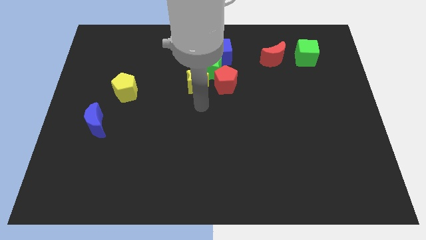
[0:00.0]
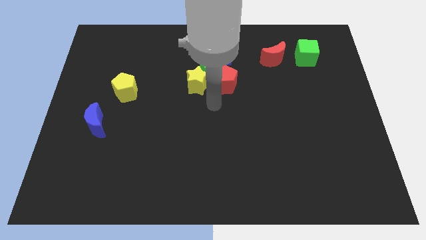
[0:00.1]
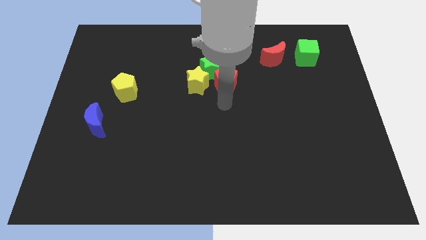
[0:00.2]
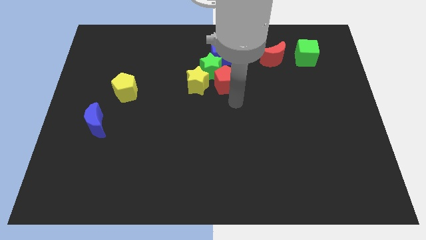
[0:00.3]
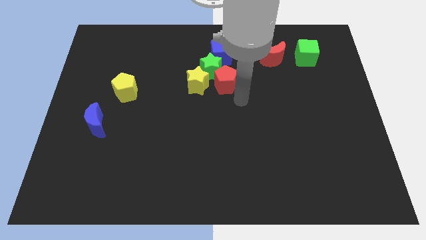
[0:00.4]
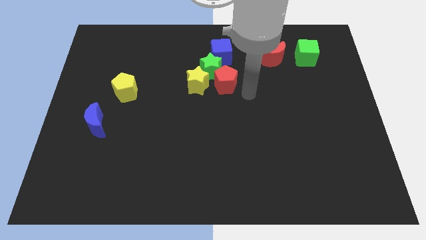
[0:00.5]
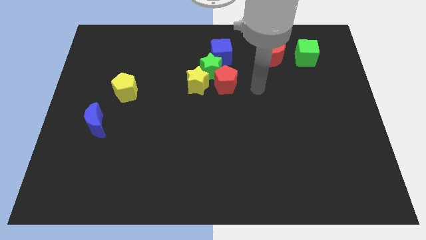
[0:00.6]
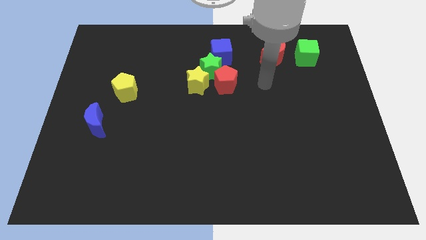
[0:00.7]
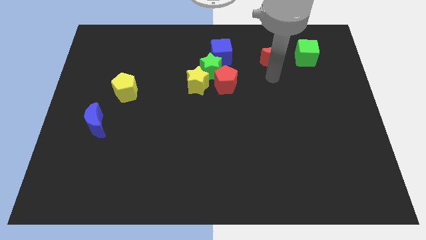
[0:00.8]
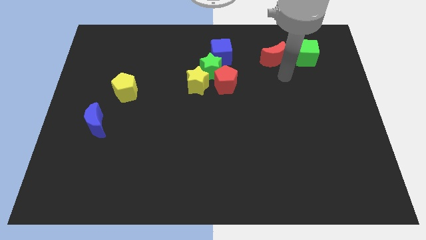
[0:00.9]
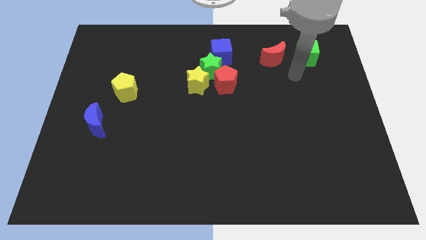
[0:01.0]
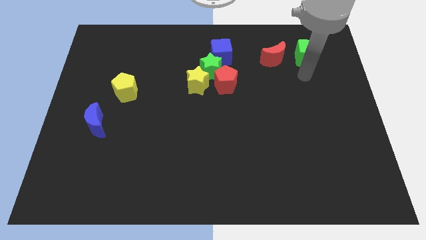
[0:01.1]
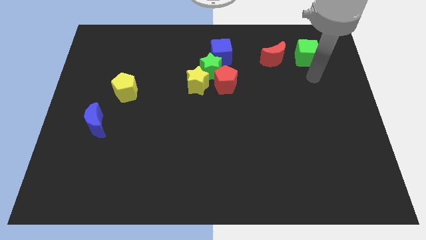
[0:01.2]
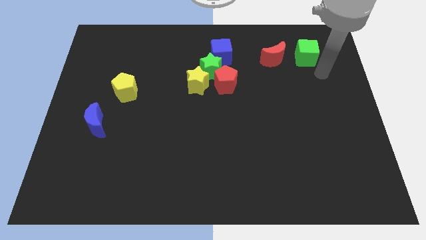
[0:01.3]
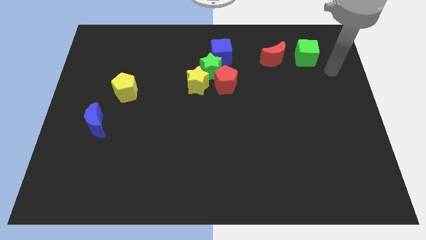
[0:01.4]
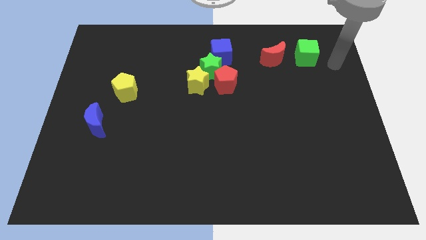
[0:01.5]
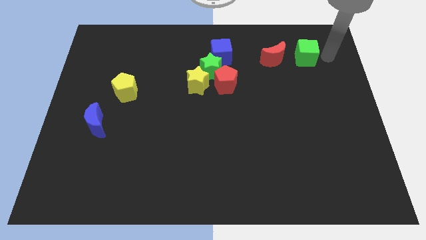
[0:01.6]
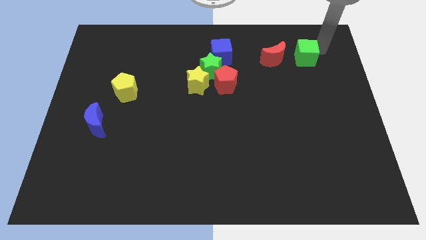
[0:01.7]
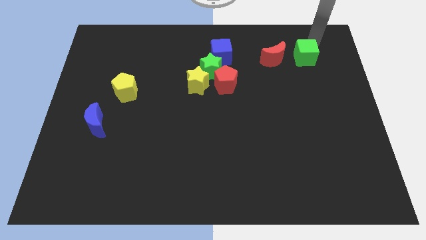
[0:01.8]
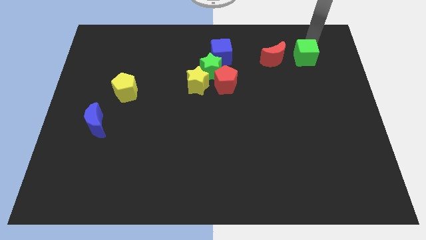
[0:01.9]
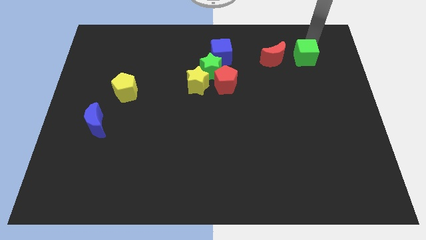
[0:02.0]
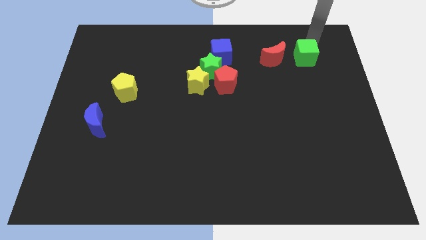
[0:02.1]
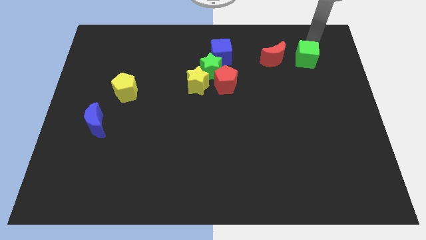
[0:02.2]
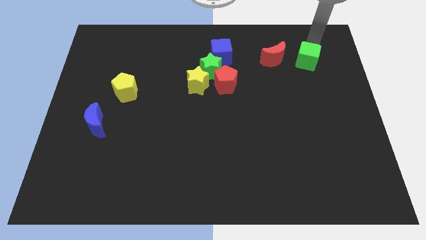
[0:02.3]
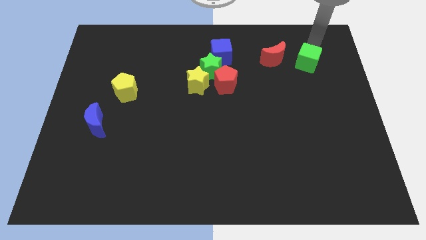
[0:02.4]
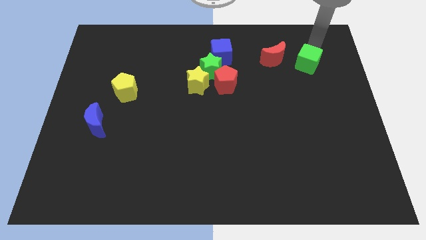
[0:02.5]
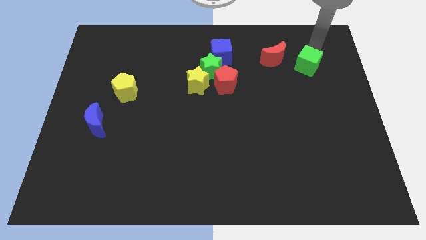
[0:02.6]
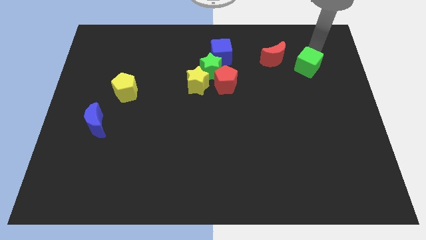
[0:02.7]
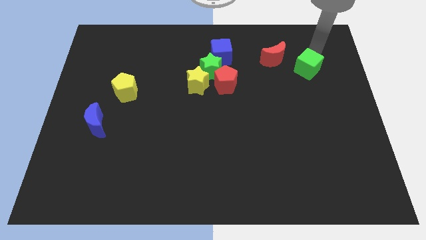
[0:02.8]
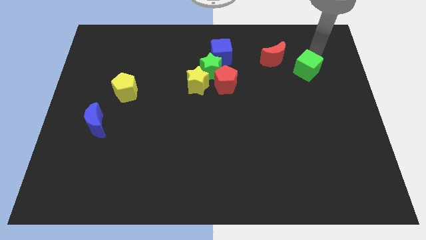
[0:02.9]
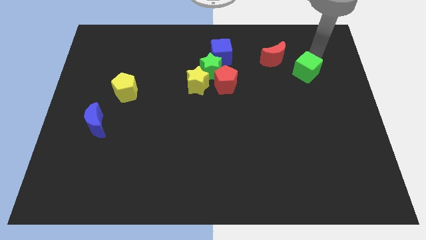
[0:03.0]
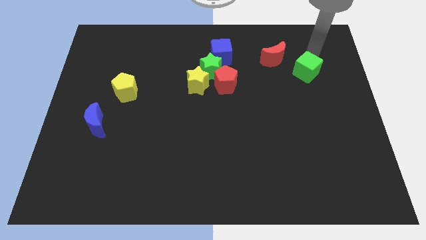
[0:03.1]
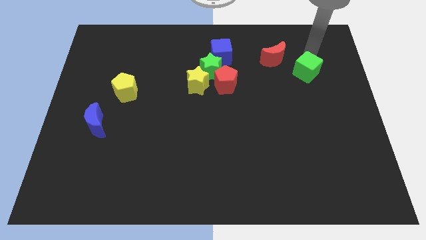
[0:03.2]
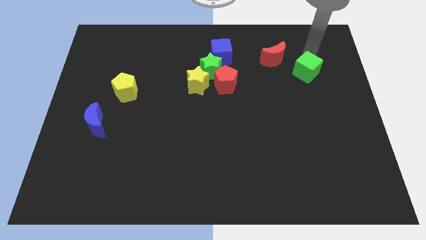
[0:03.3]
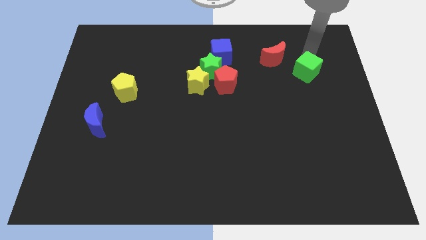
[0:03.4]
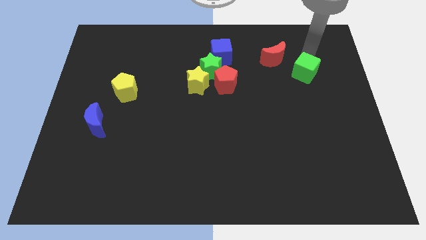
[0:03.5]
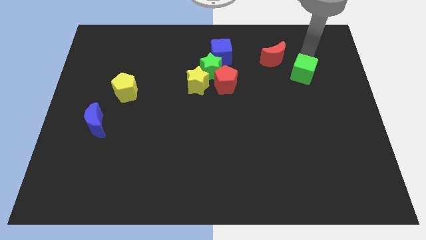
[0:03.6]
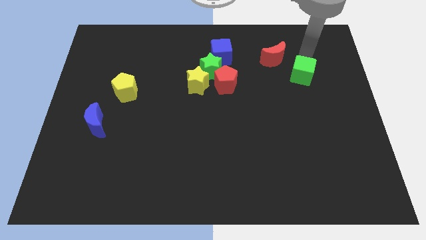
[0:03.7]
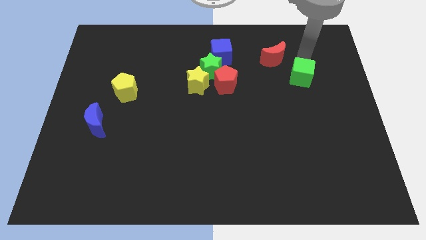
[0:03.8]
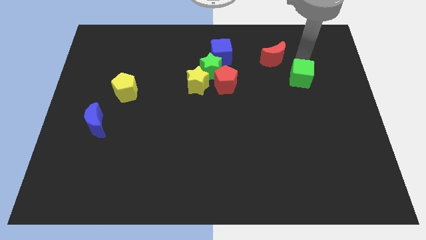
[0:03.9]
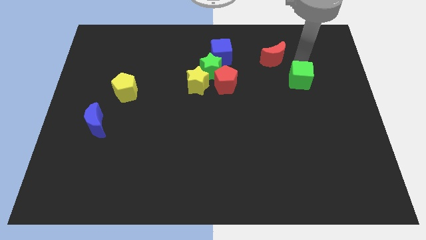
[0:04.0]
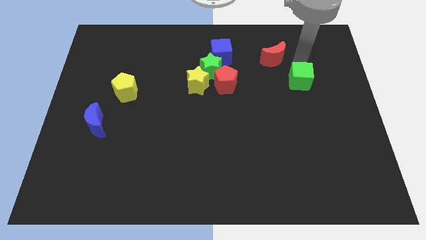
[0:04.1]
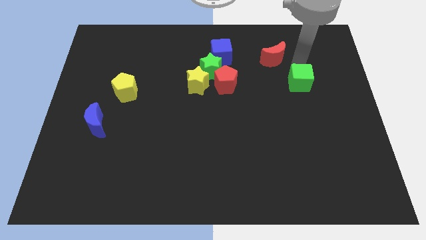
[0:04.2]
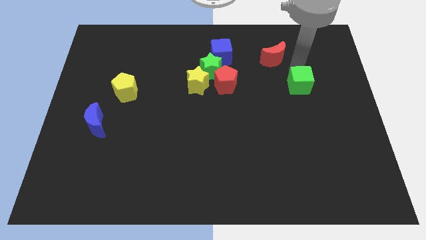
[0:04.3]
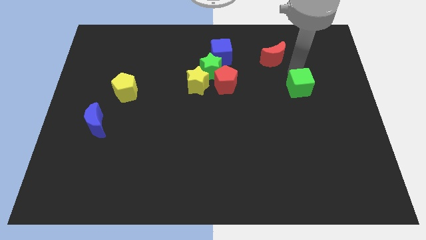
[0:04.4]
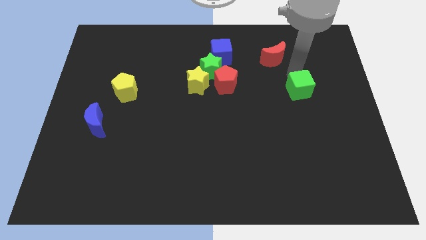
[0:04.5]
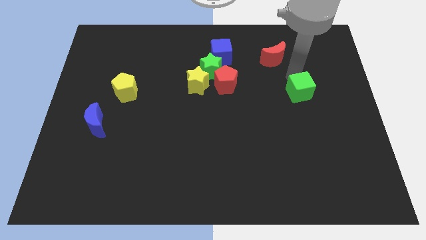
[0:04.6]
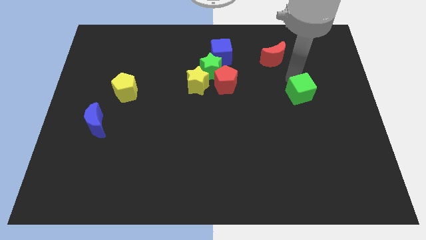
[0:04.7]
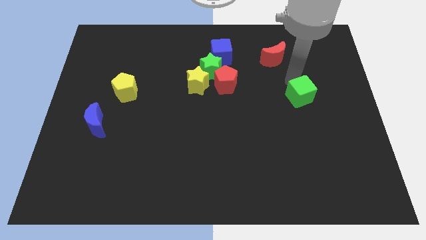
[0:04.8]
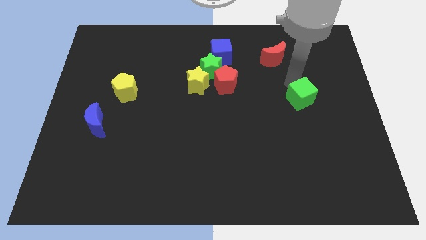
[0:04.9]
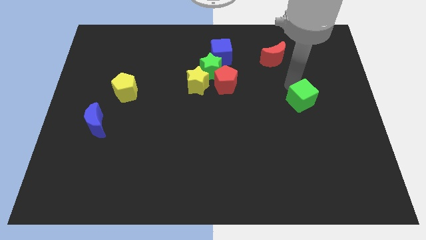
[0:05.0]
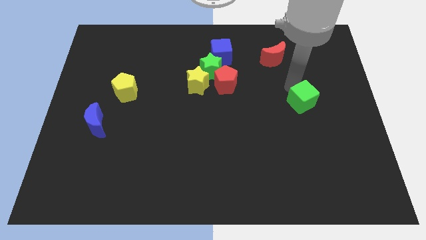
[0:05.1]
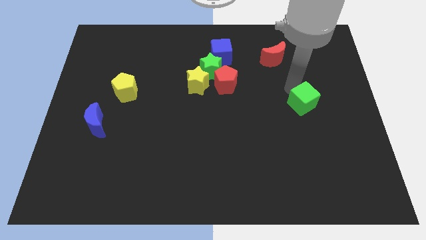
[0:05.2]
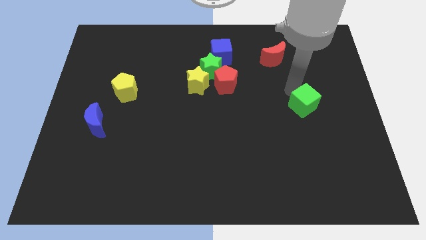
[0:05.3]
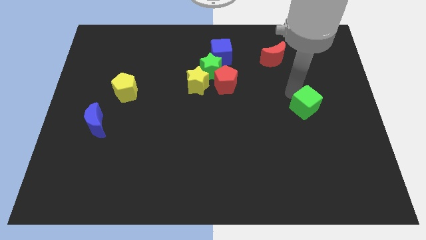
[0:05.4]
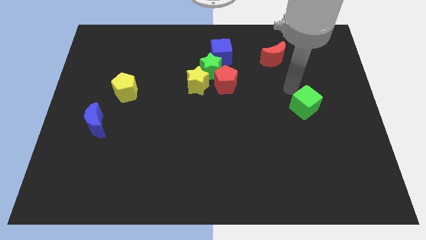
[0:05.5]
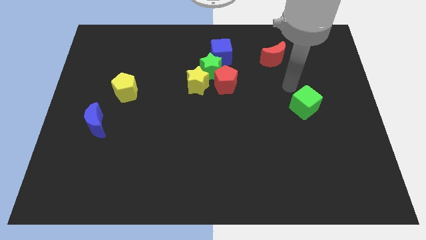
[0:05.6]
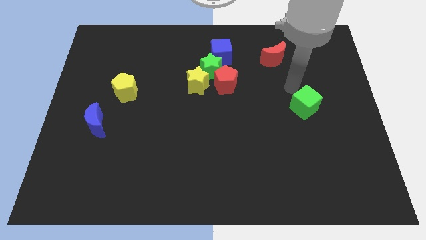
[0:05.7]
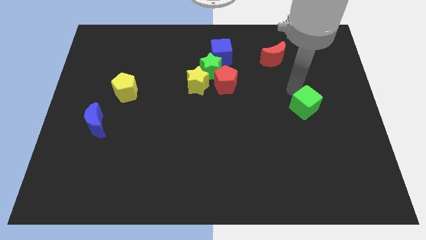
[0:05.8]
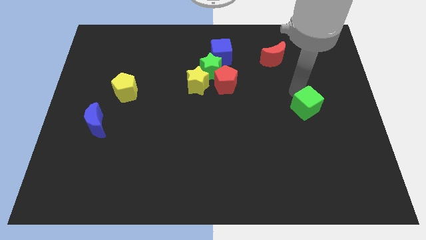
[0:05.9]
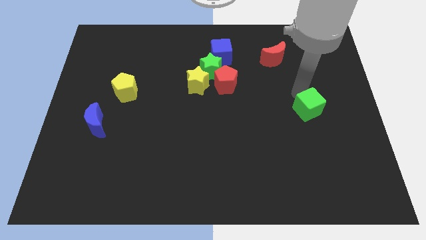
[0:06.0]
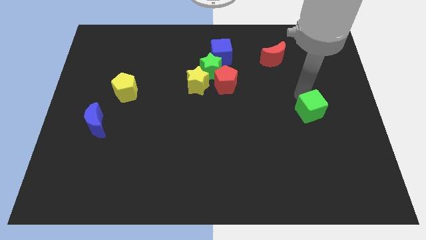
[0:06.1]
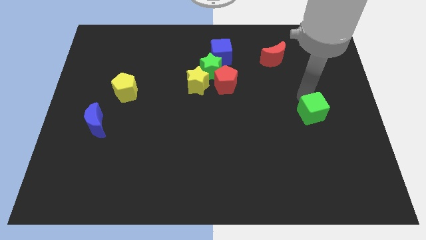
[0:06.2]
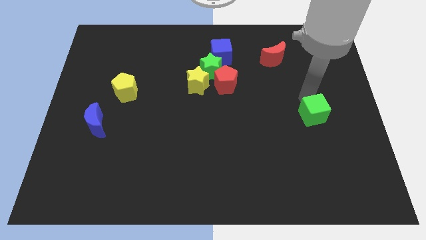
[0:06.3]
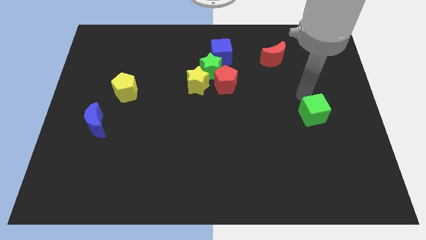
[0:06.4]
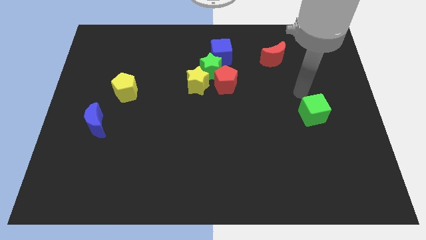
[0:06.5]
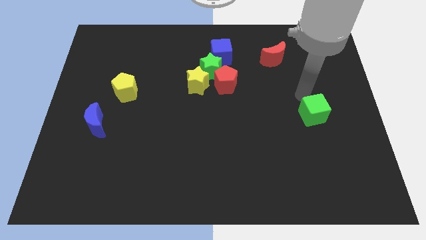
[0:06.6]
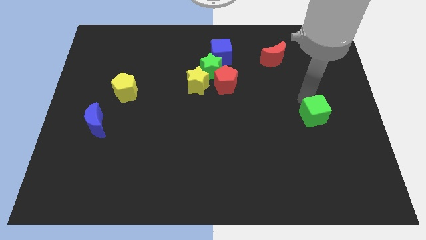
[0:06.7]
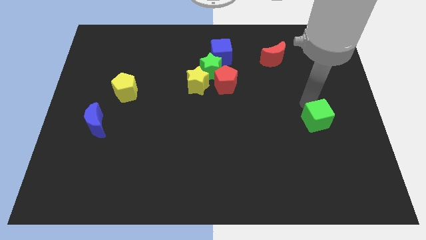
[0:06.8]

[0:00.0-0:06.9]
move the green cube downwards

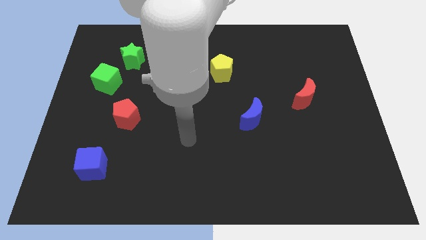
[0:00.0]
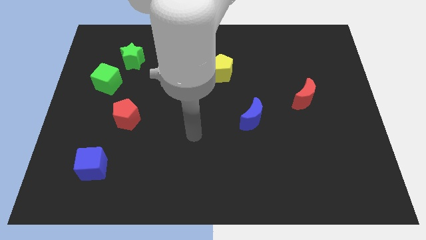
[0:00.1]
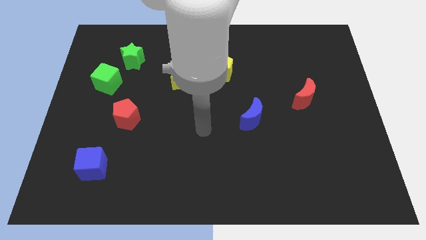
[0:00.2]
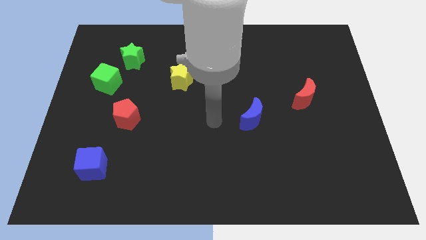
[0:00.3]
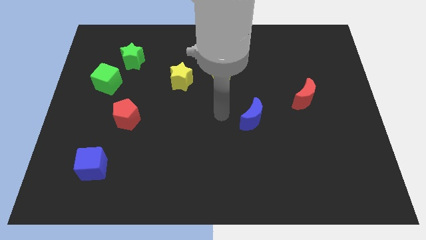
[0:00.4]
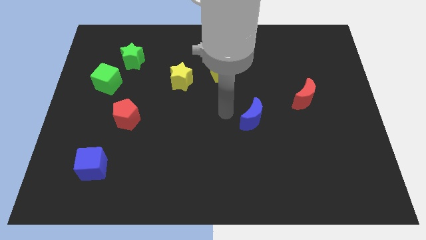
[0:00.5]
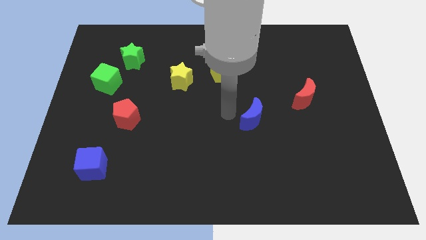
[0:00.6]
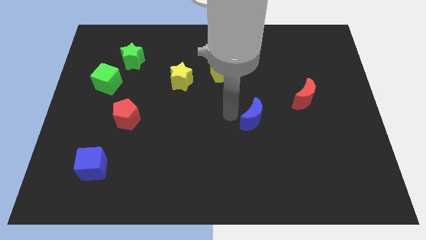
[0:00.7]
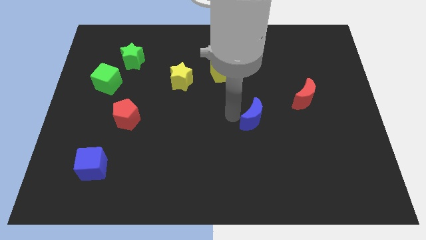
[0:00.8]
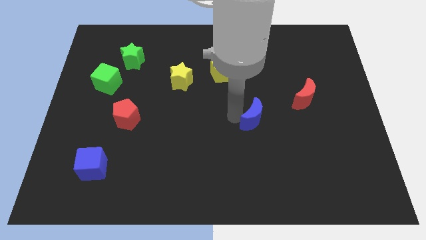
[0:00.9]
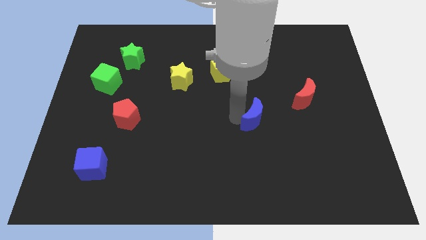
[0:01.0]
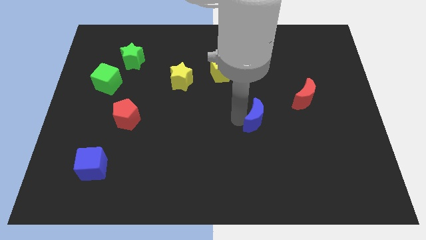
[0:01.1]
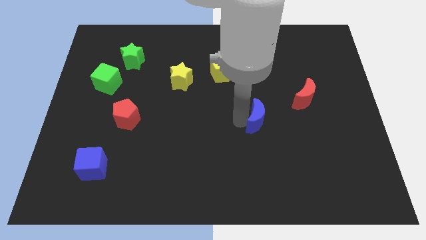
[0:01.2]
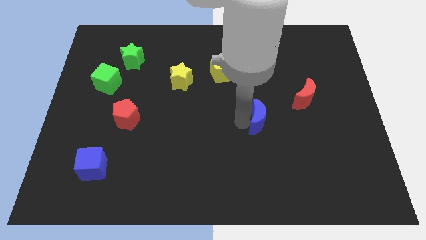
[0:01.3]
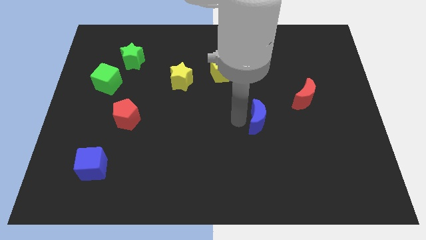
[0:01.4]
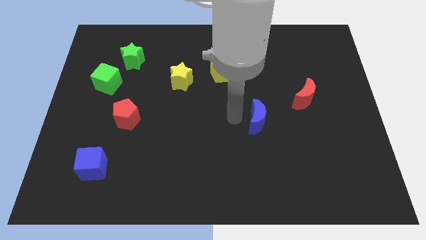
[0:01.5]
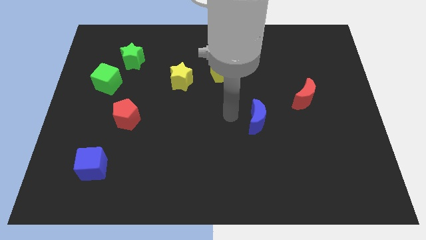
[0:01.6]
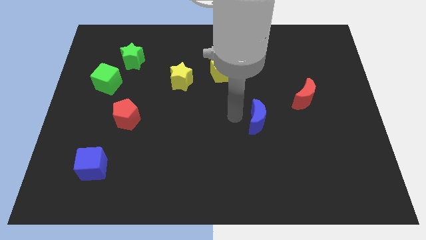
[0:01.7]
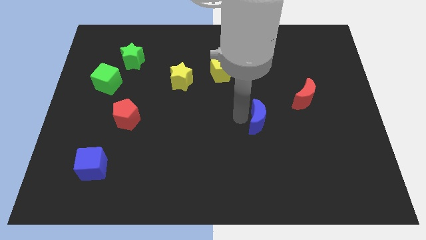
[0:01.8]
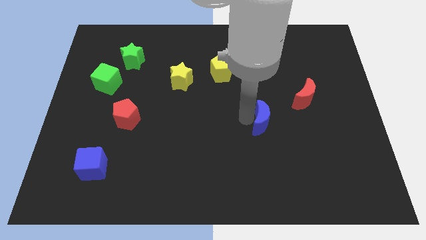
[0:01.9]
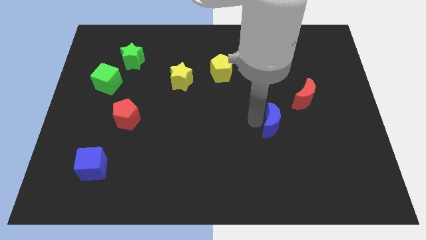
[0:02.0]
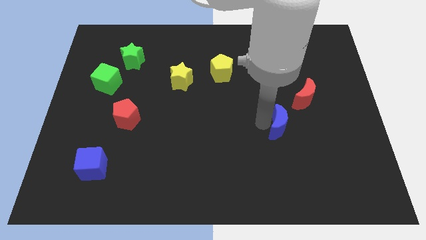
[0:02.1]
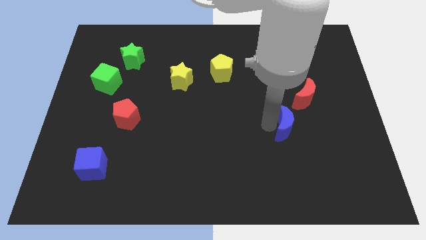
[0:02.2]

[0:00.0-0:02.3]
slide the blue moon somewhat right
